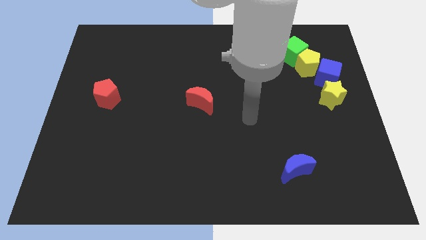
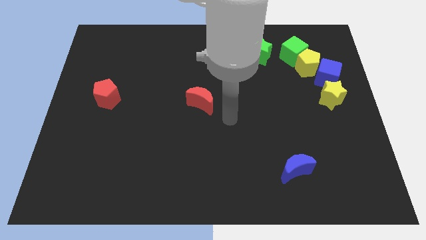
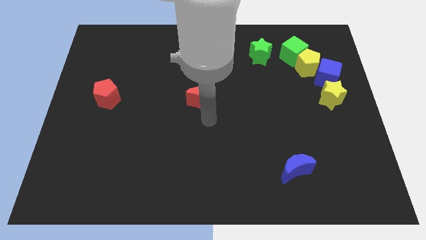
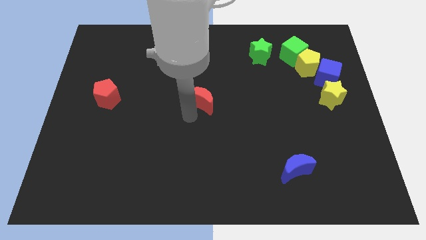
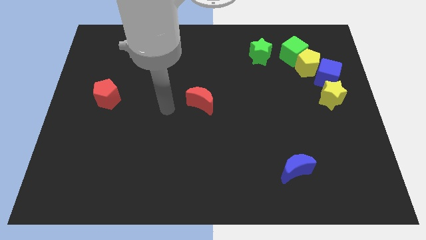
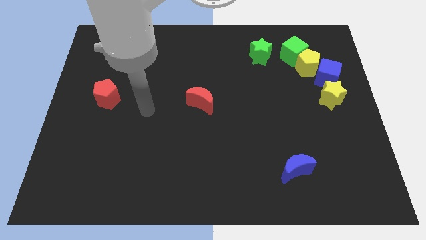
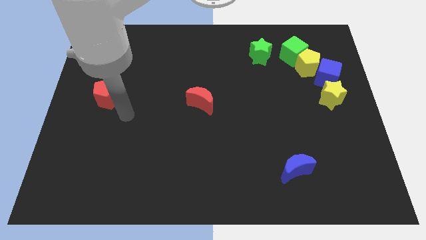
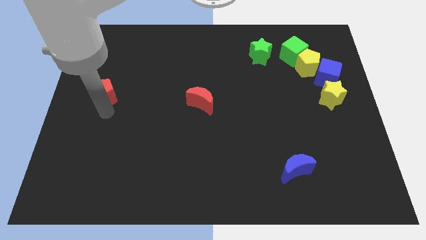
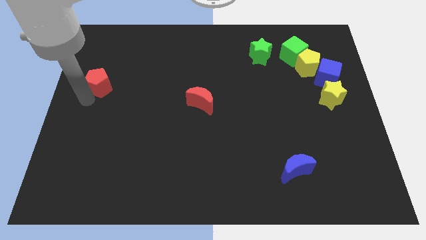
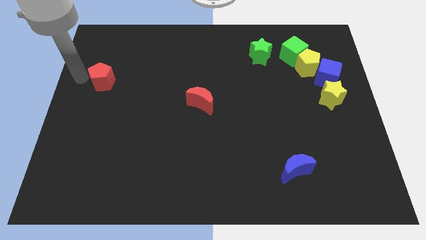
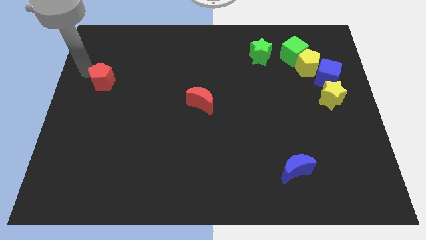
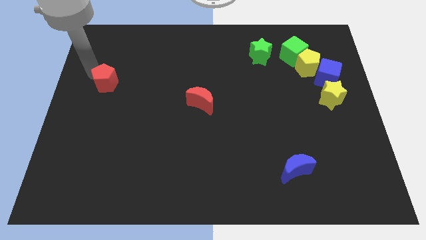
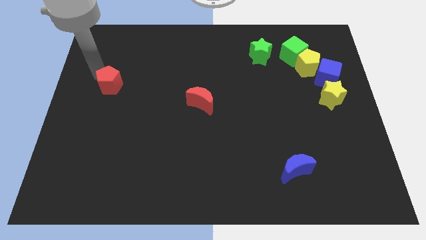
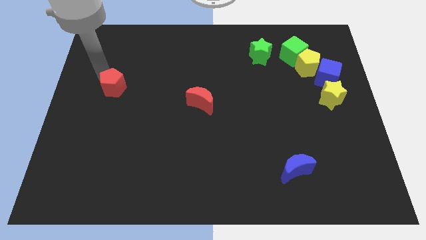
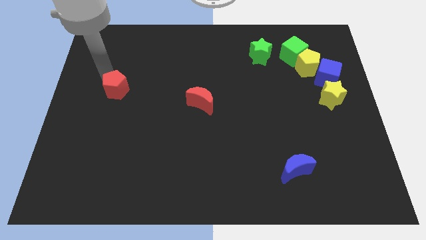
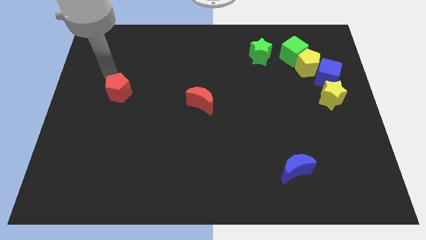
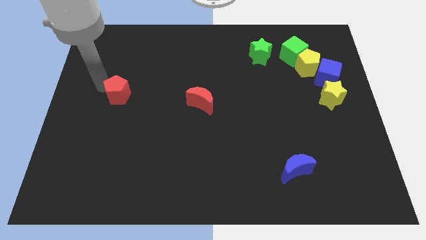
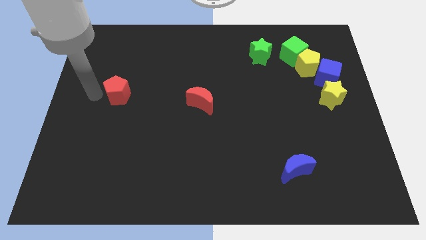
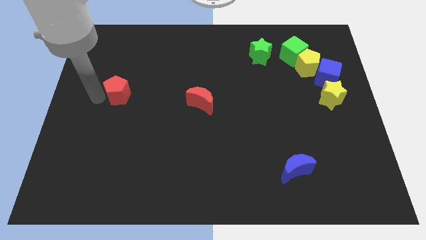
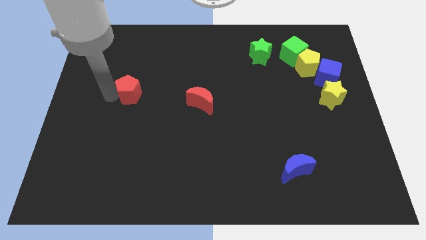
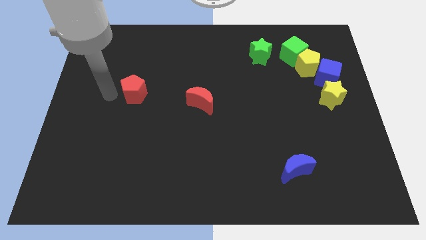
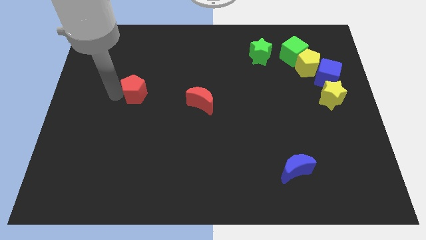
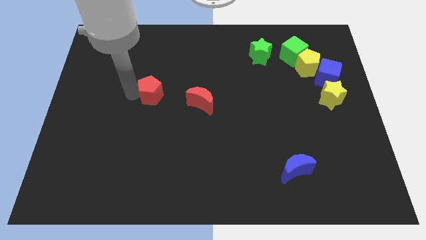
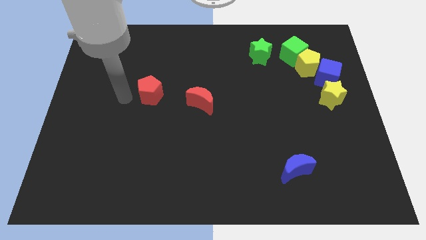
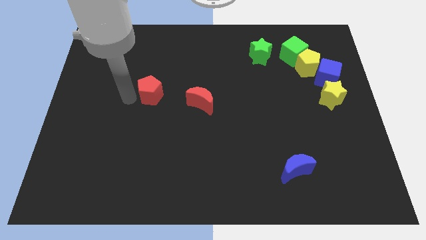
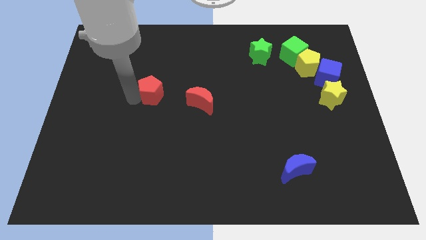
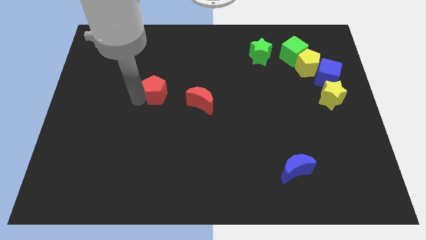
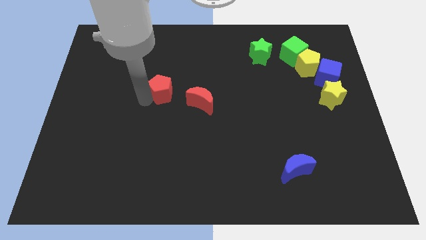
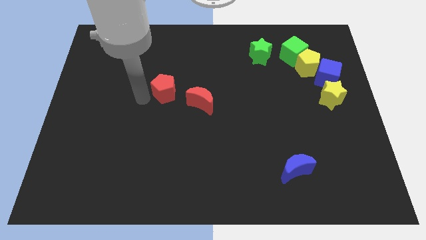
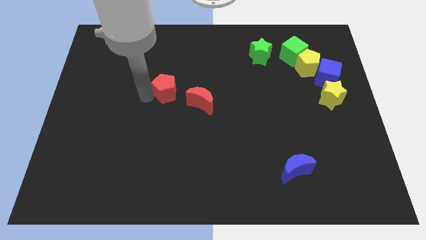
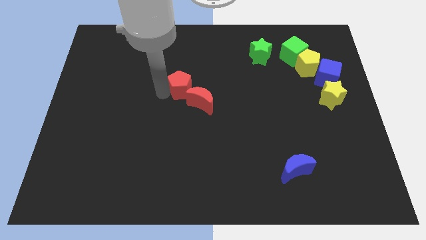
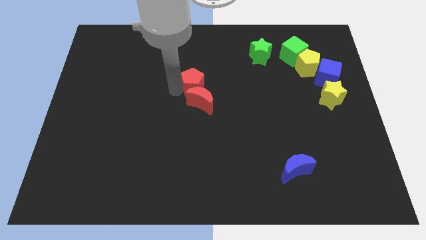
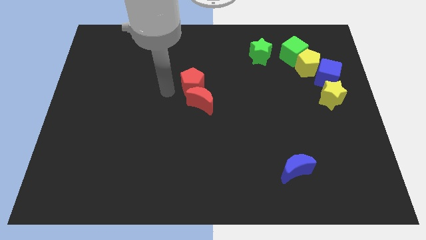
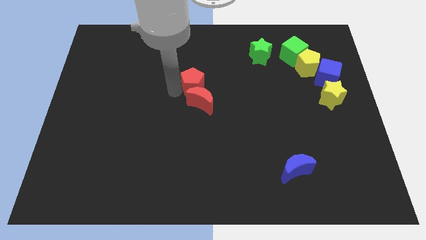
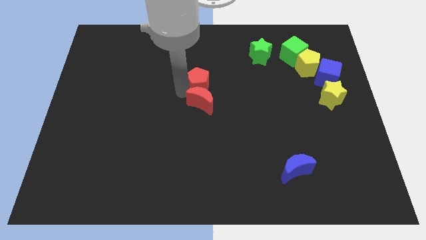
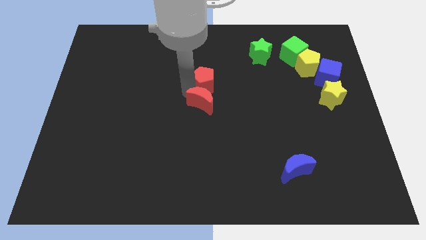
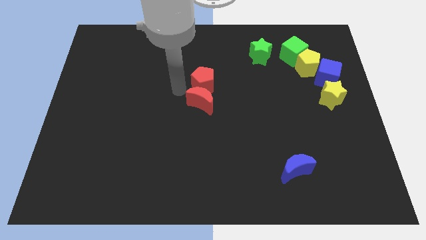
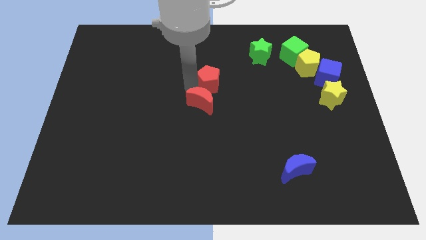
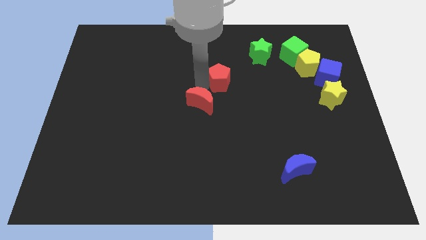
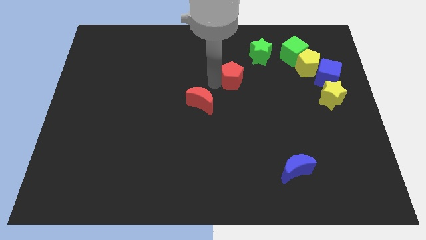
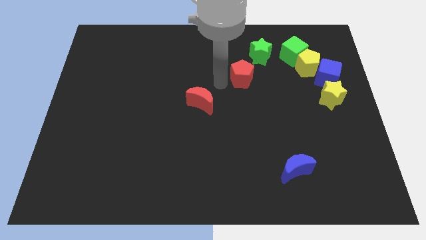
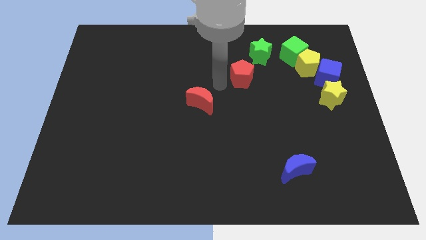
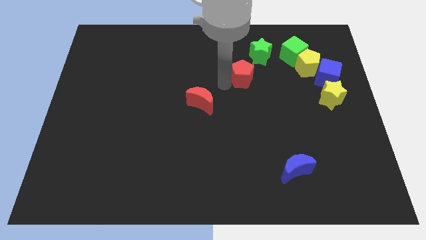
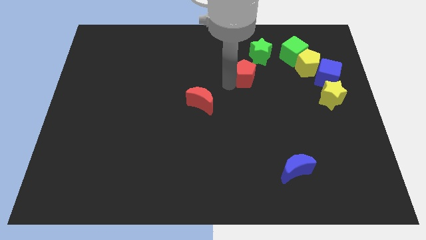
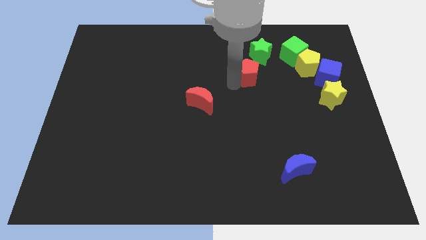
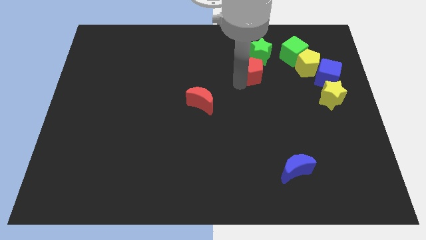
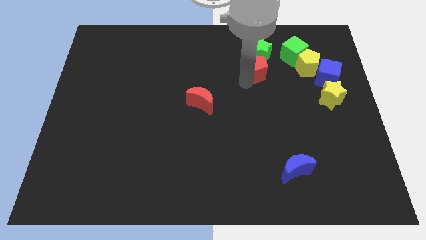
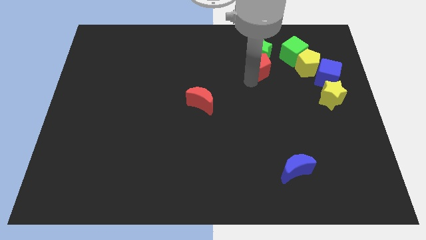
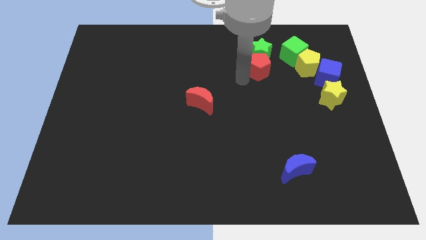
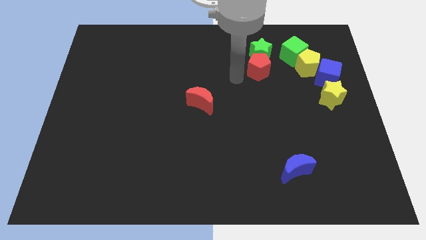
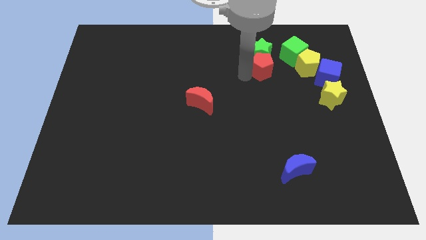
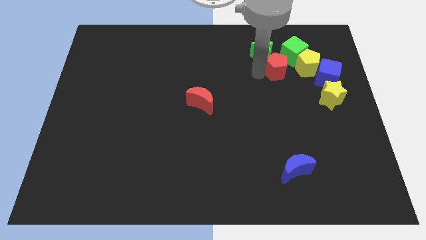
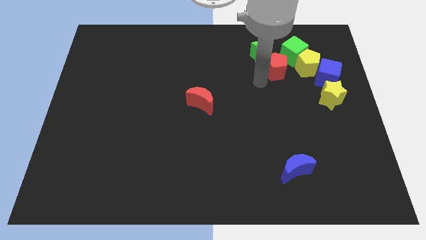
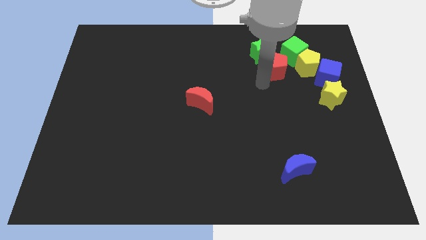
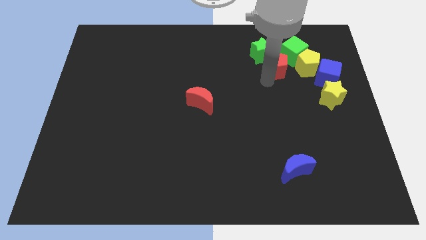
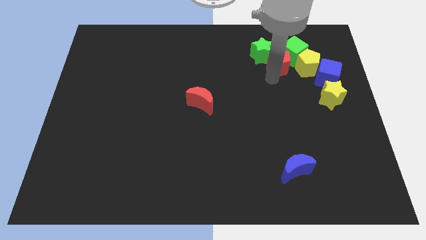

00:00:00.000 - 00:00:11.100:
push the red pentagon towards the green cube

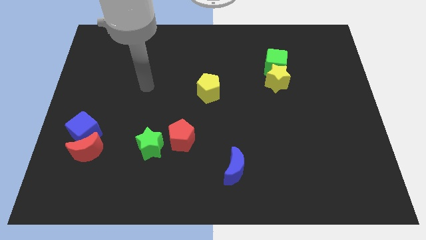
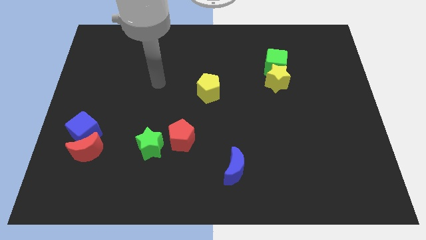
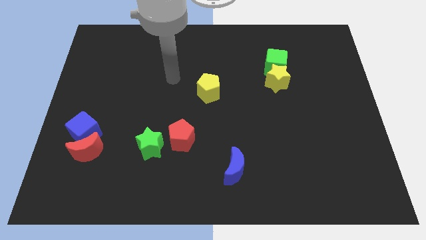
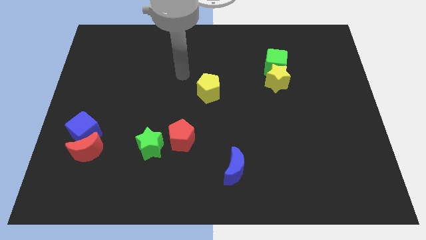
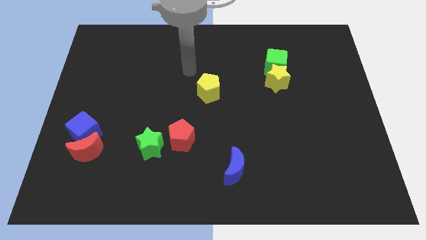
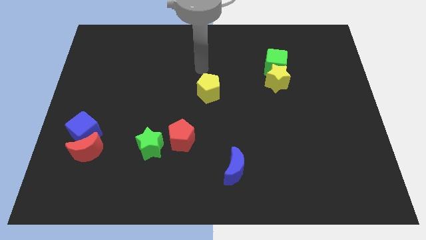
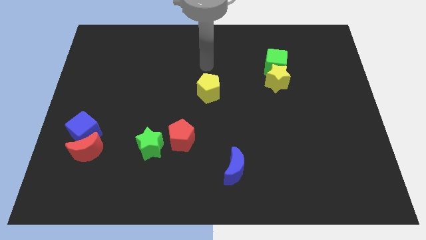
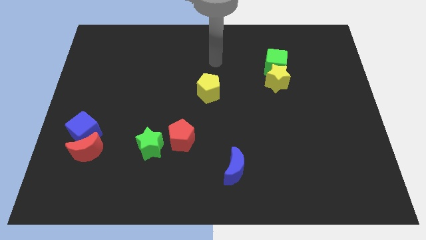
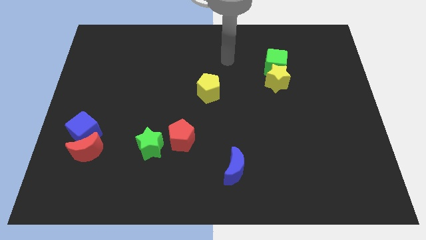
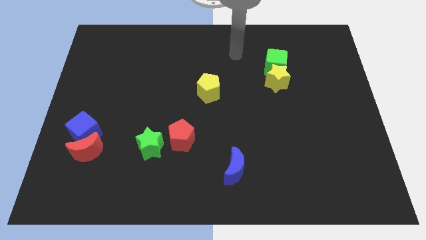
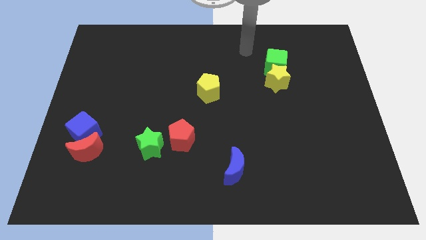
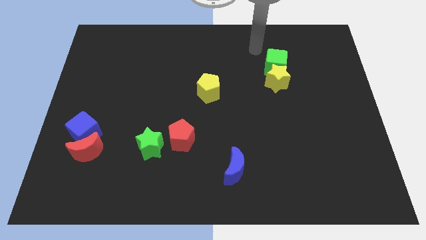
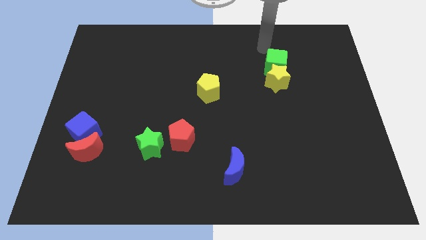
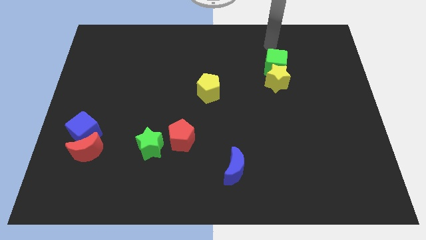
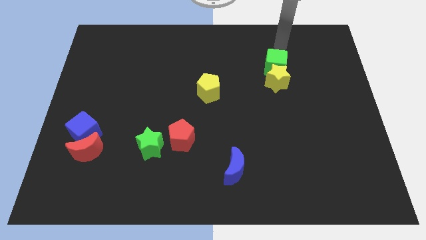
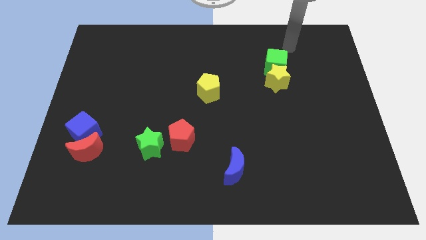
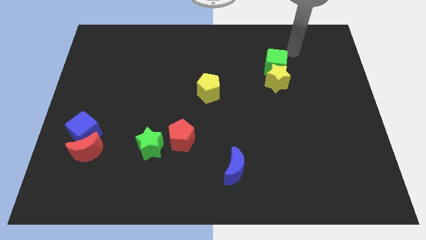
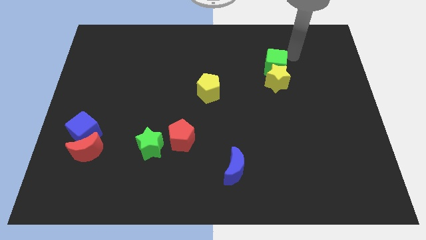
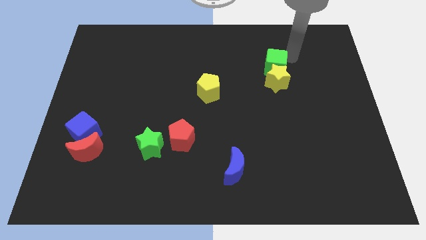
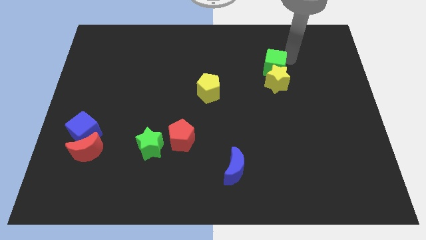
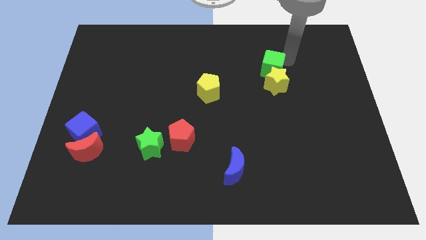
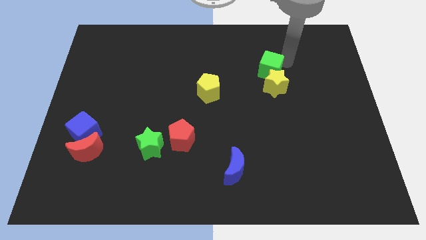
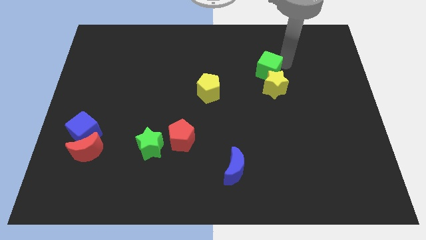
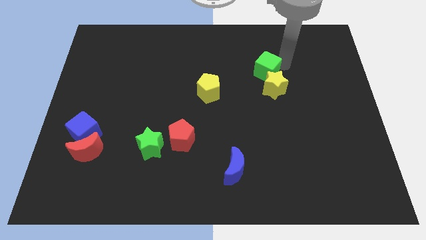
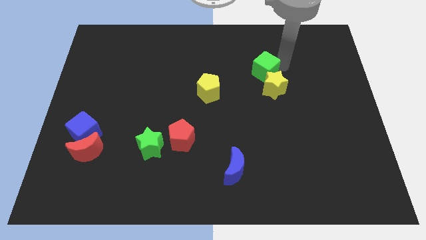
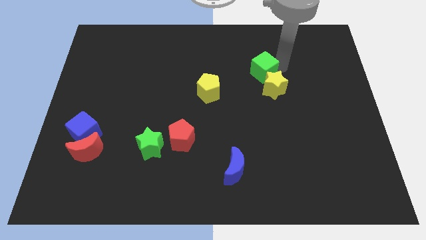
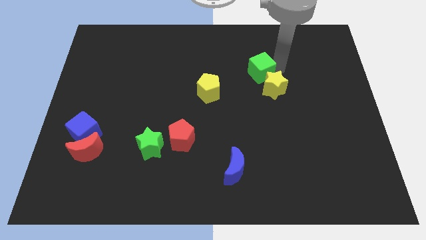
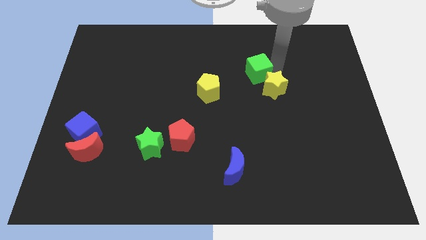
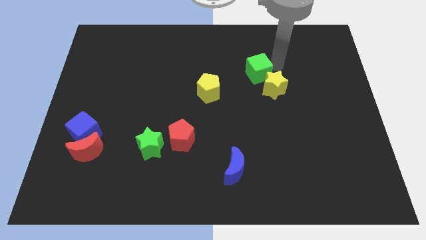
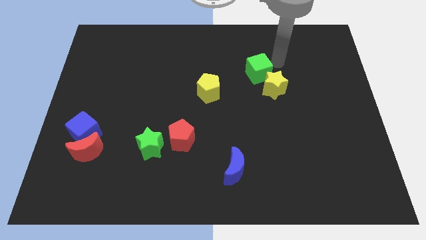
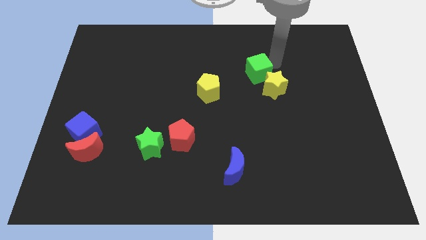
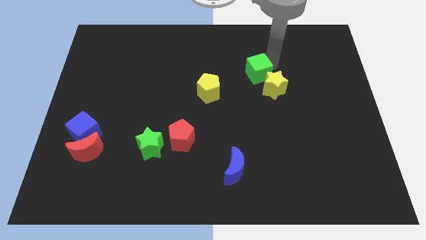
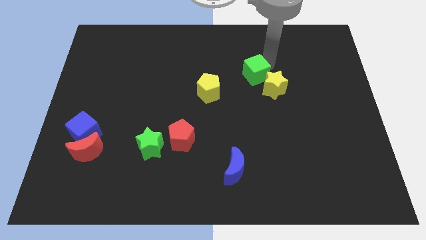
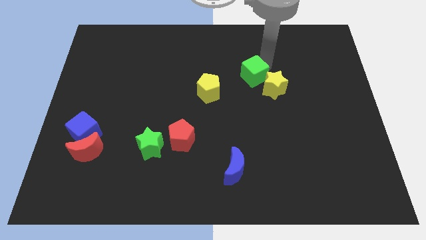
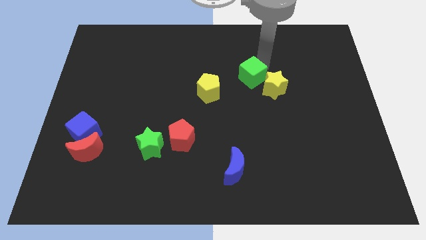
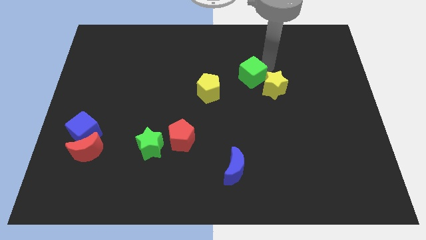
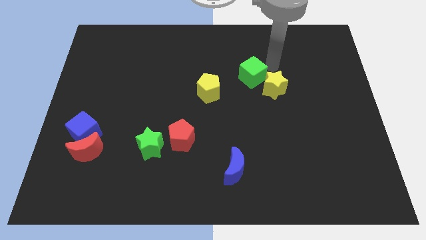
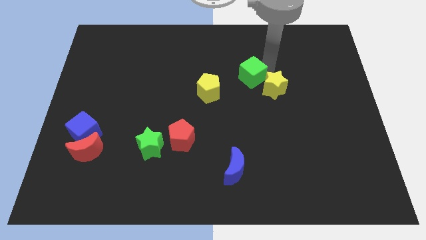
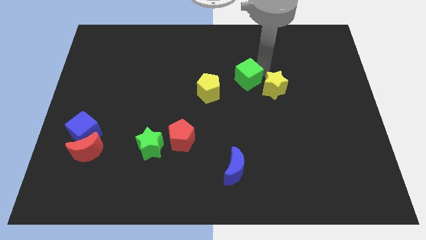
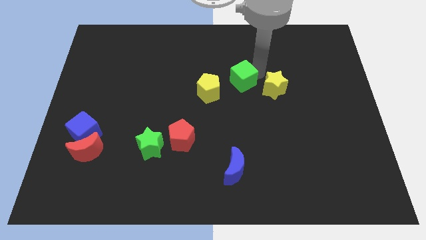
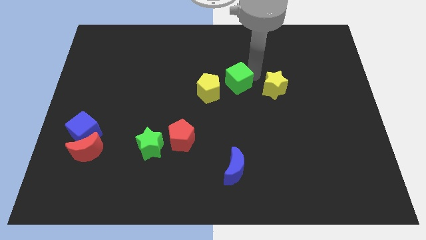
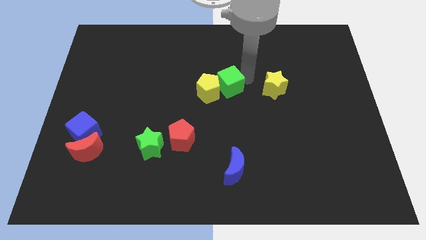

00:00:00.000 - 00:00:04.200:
put the green cube to the yellow pentagon
